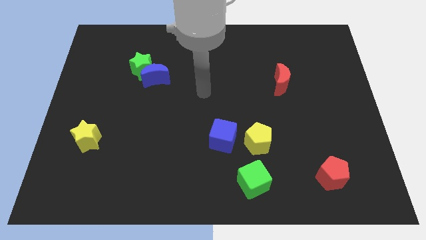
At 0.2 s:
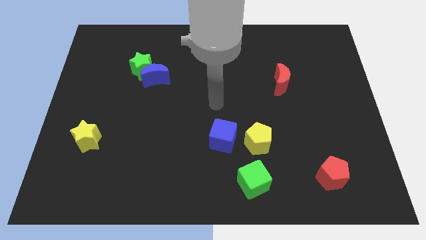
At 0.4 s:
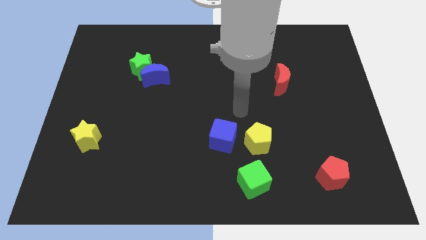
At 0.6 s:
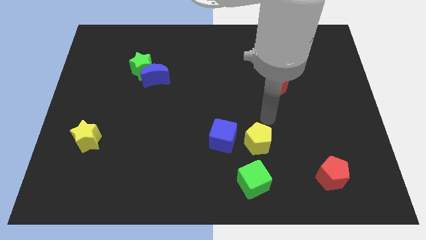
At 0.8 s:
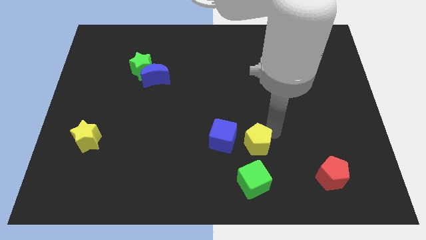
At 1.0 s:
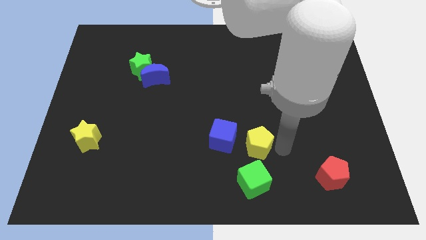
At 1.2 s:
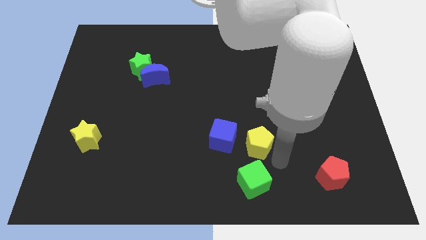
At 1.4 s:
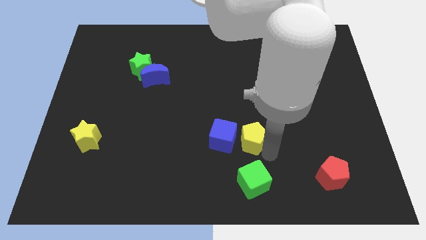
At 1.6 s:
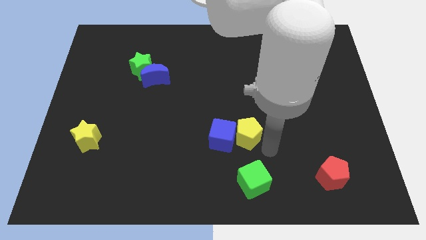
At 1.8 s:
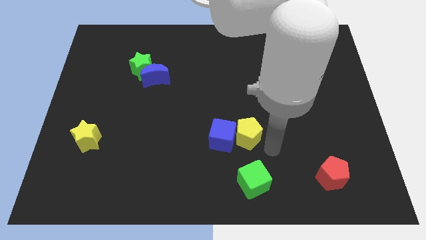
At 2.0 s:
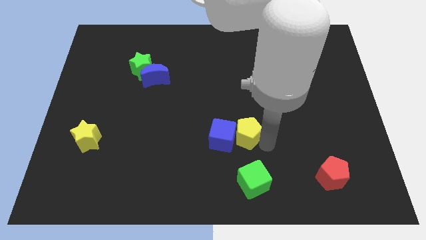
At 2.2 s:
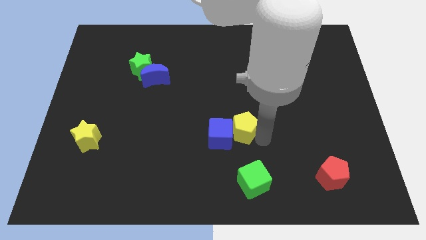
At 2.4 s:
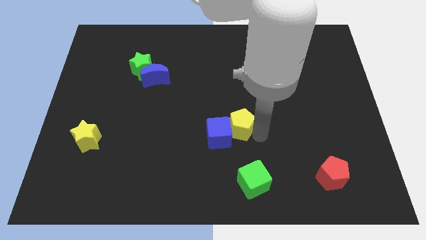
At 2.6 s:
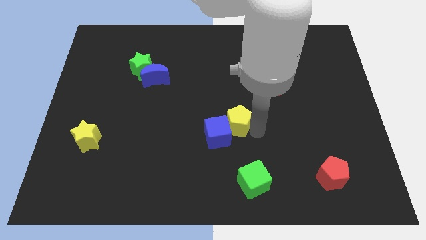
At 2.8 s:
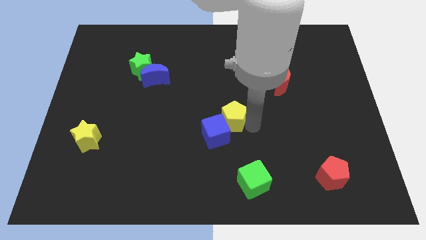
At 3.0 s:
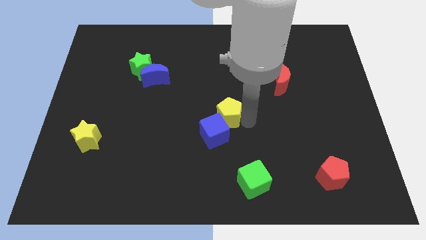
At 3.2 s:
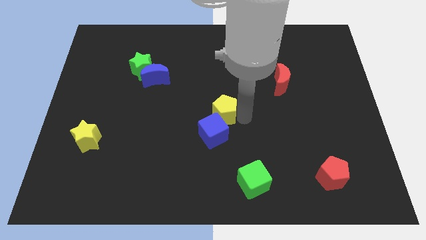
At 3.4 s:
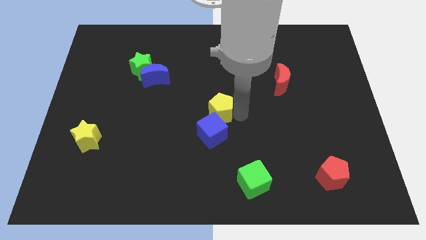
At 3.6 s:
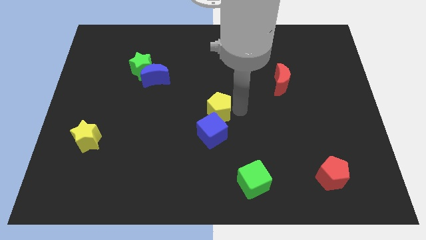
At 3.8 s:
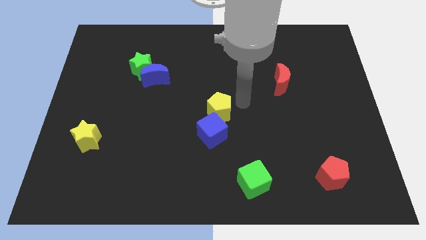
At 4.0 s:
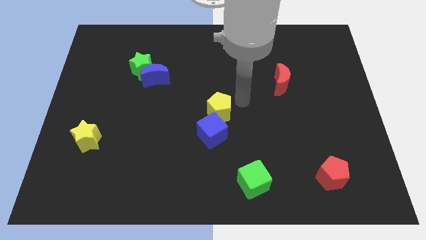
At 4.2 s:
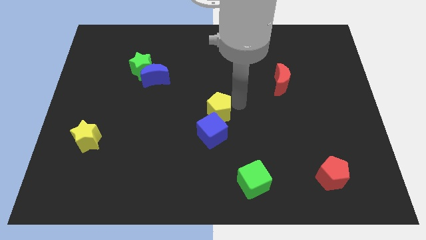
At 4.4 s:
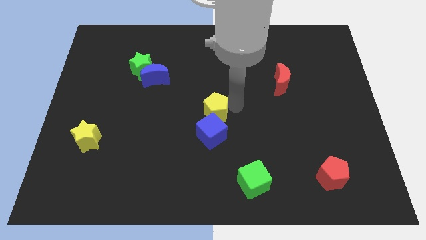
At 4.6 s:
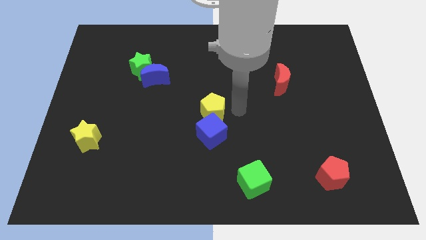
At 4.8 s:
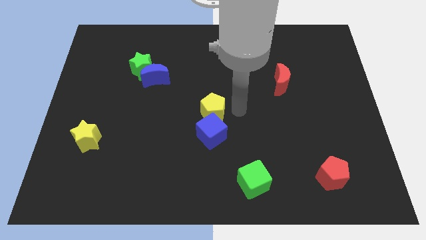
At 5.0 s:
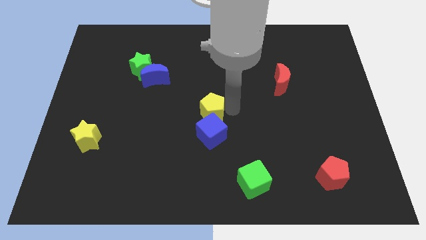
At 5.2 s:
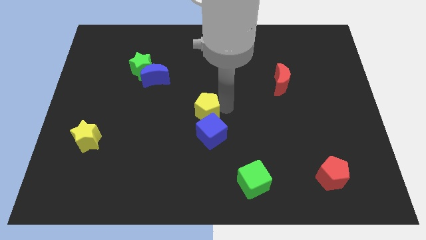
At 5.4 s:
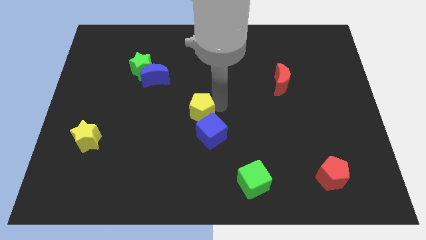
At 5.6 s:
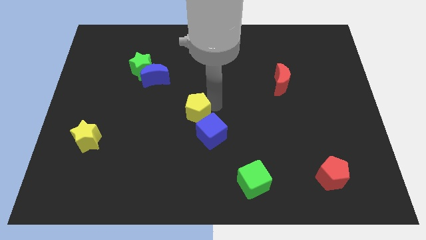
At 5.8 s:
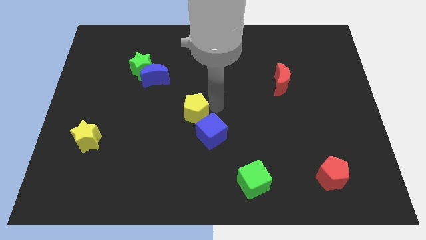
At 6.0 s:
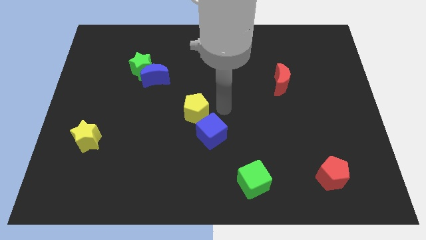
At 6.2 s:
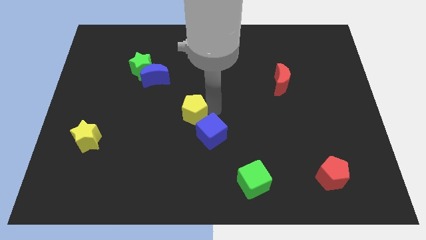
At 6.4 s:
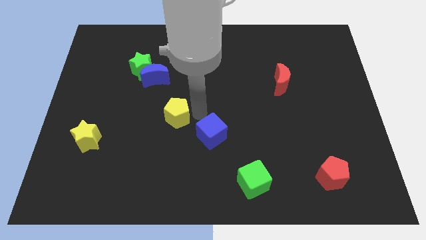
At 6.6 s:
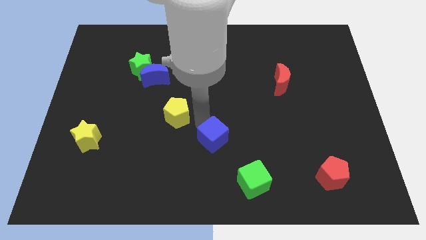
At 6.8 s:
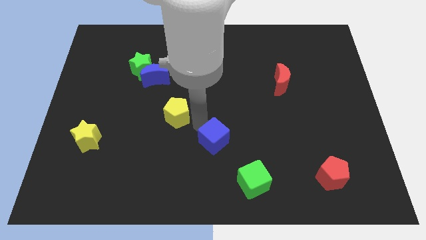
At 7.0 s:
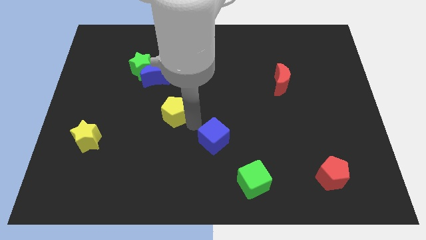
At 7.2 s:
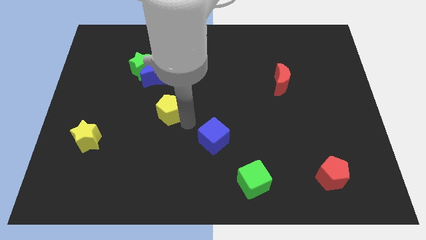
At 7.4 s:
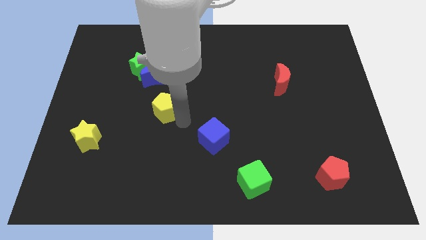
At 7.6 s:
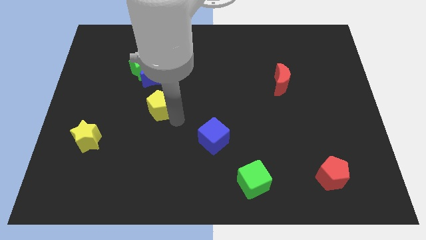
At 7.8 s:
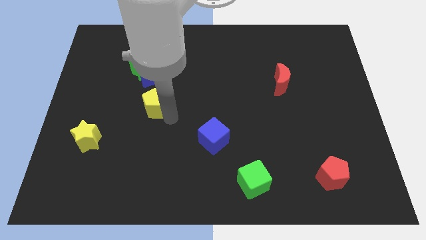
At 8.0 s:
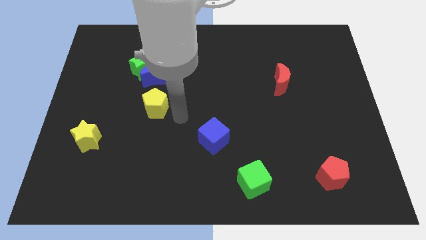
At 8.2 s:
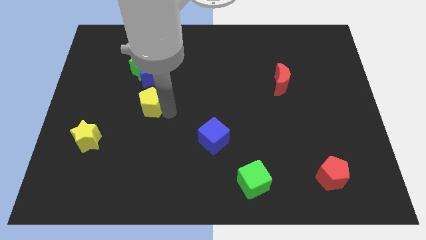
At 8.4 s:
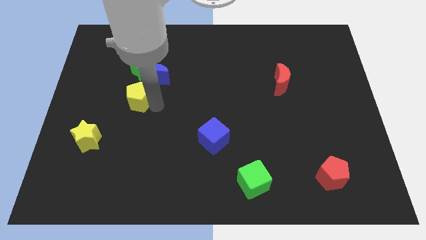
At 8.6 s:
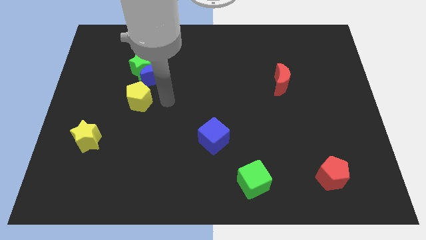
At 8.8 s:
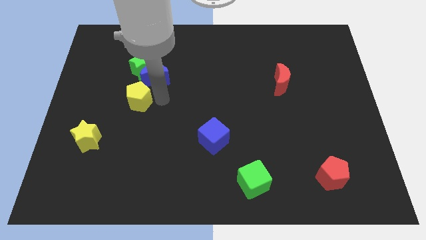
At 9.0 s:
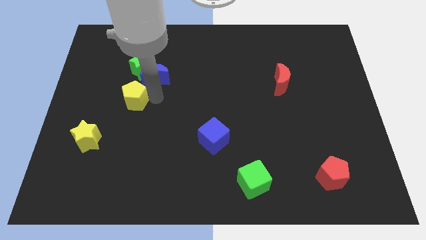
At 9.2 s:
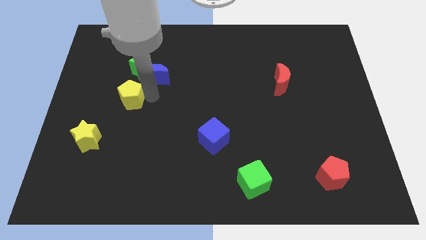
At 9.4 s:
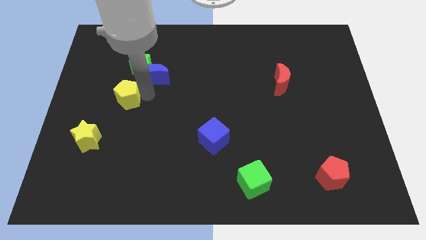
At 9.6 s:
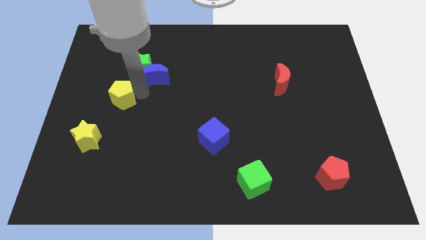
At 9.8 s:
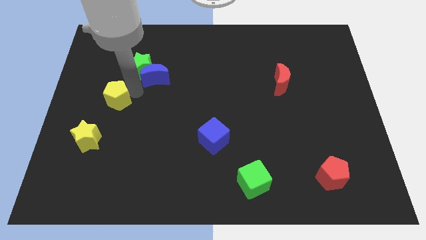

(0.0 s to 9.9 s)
slide the yellow pentagon to the top of the yellow star

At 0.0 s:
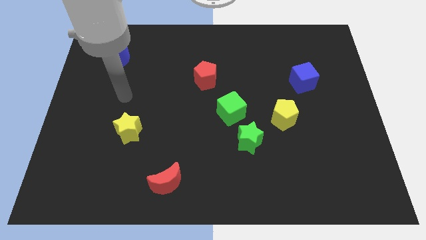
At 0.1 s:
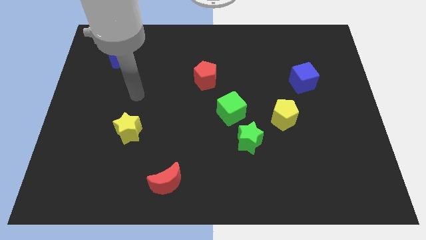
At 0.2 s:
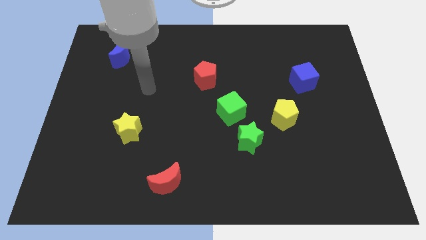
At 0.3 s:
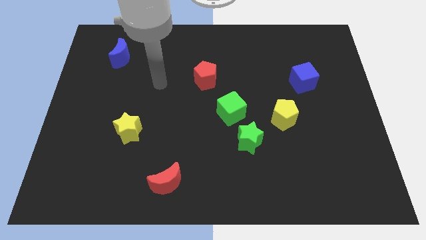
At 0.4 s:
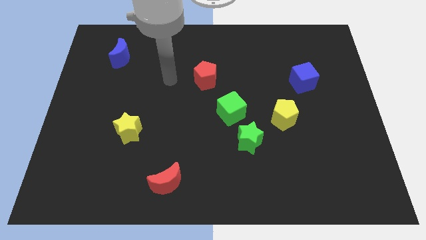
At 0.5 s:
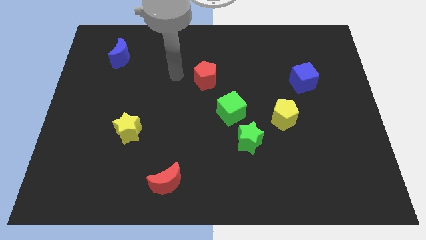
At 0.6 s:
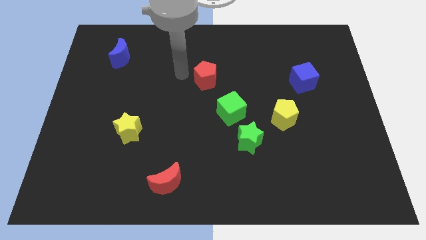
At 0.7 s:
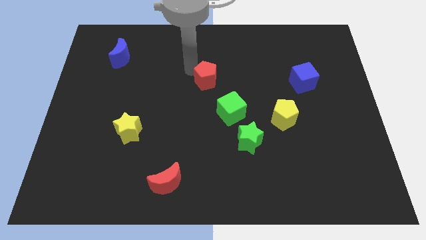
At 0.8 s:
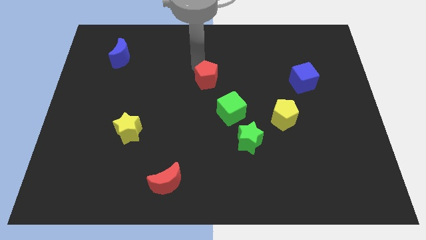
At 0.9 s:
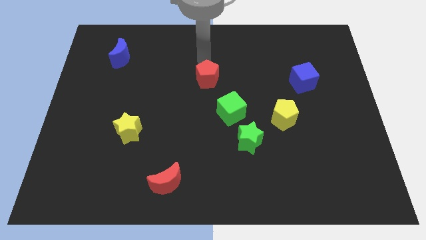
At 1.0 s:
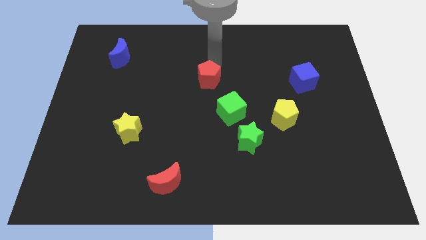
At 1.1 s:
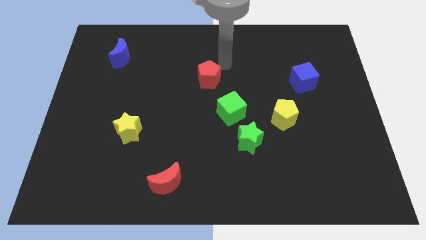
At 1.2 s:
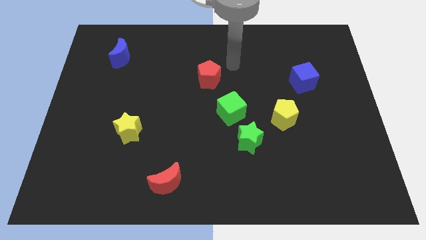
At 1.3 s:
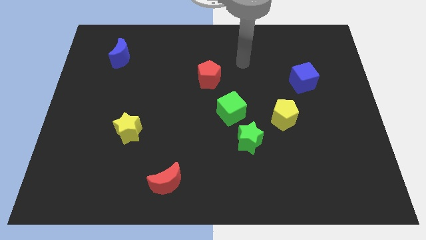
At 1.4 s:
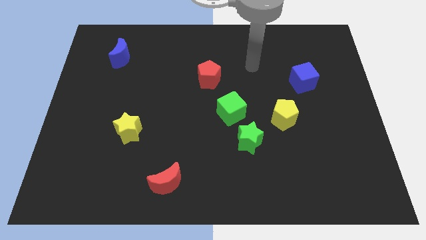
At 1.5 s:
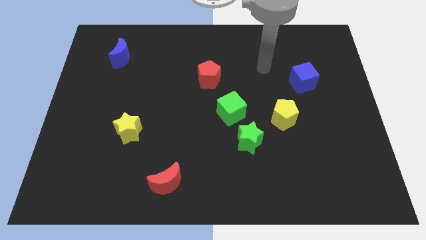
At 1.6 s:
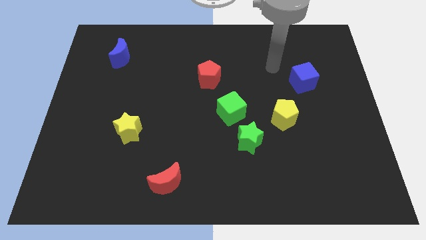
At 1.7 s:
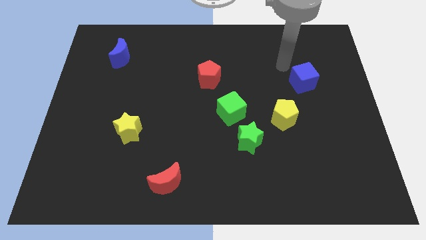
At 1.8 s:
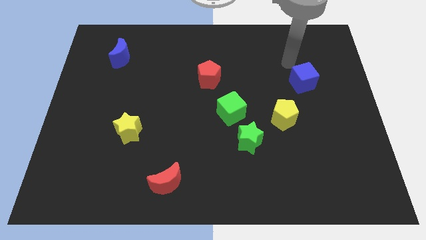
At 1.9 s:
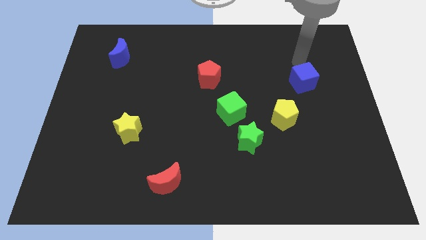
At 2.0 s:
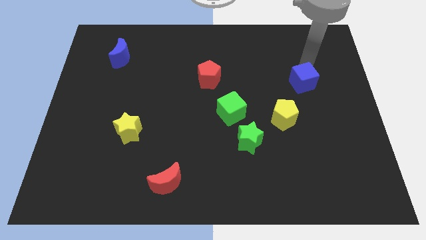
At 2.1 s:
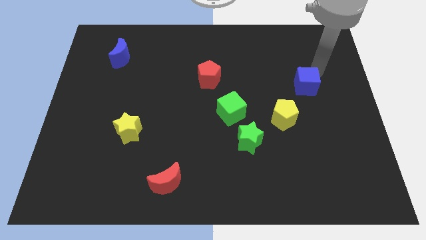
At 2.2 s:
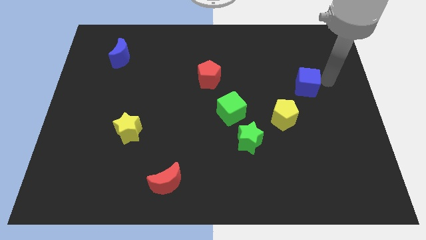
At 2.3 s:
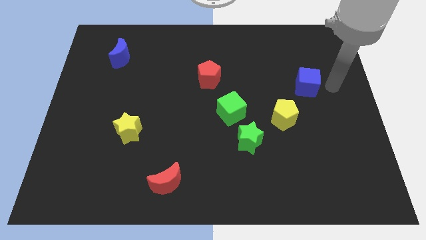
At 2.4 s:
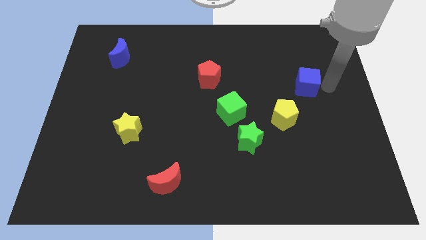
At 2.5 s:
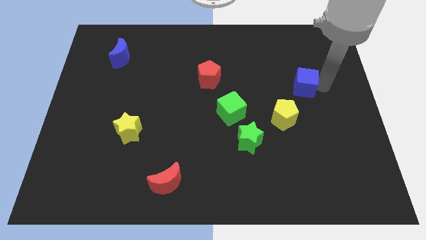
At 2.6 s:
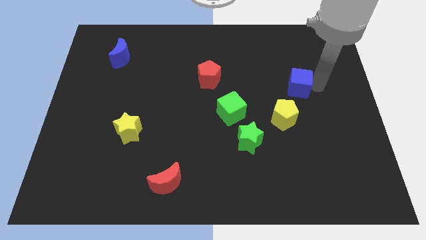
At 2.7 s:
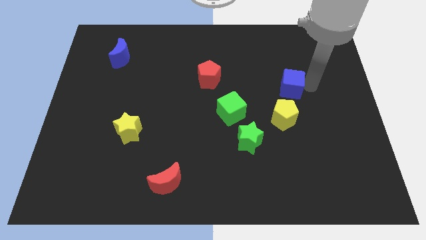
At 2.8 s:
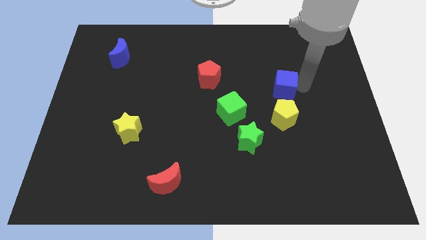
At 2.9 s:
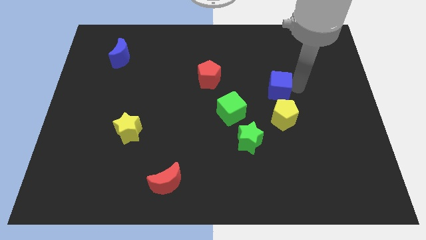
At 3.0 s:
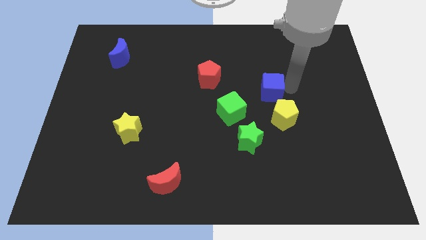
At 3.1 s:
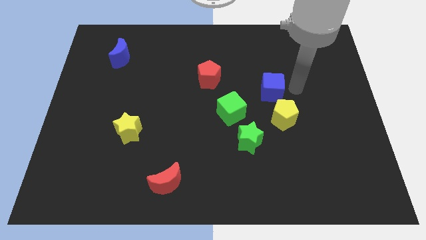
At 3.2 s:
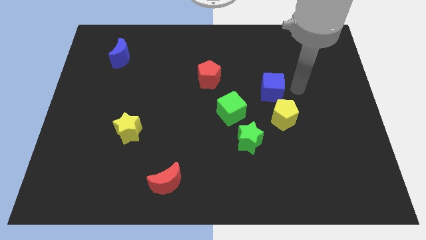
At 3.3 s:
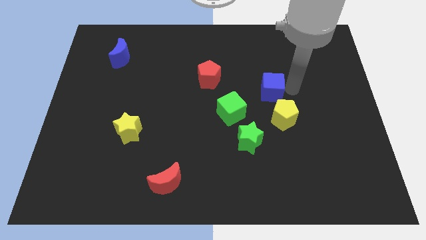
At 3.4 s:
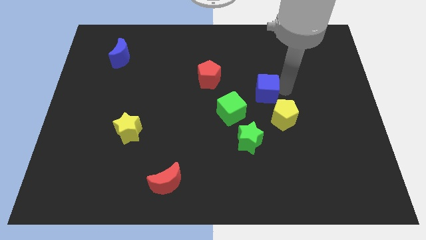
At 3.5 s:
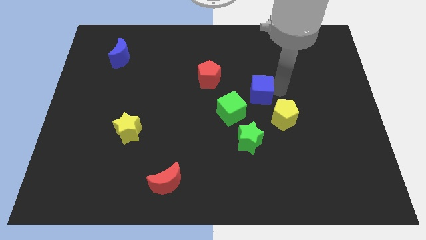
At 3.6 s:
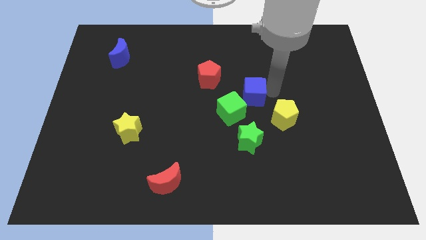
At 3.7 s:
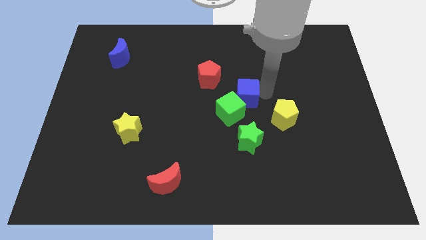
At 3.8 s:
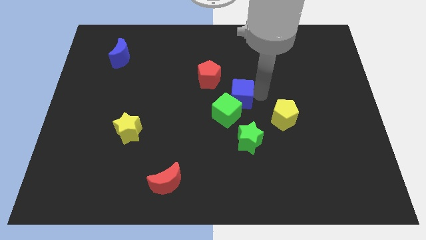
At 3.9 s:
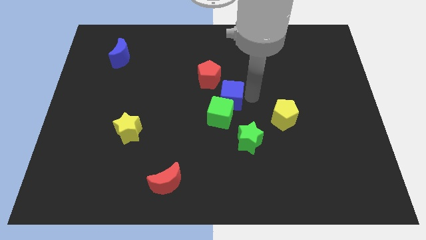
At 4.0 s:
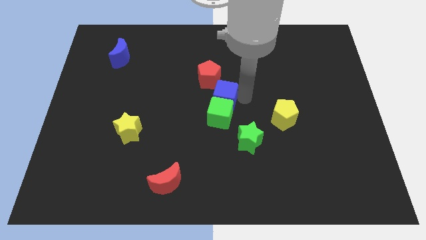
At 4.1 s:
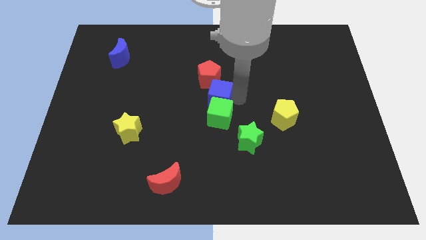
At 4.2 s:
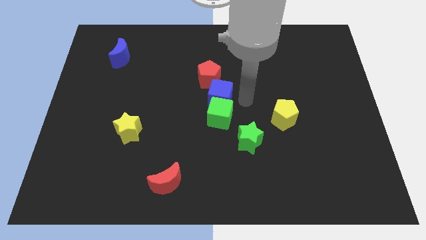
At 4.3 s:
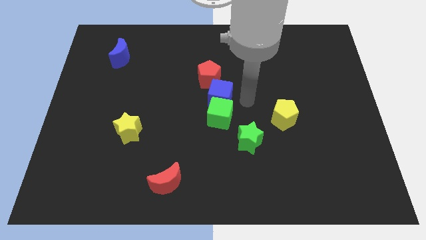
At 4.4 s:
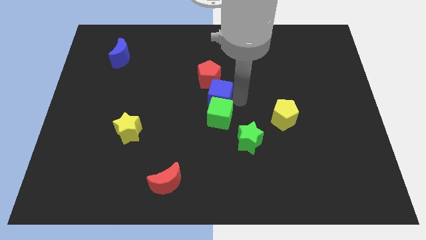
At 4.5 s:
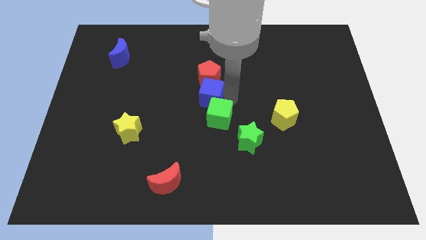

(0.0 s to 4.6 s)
move the blue cube to the bottom left of the red pentagon
